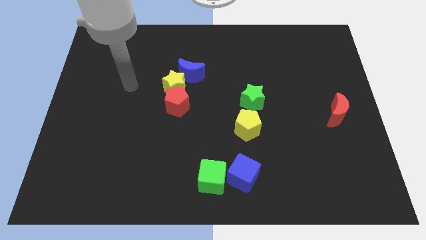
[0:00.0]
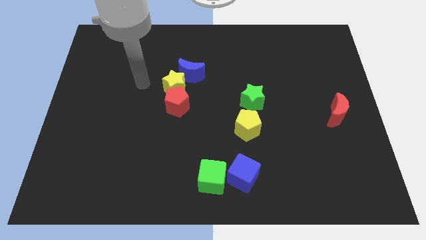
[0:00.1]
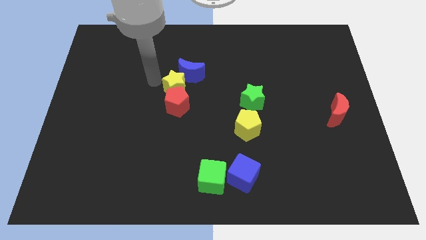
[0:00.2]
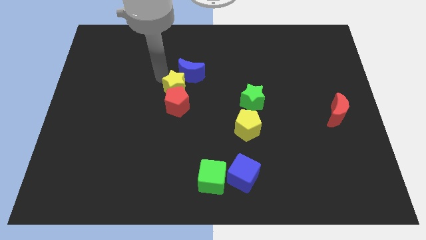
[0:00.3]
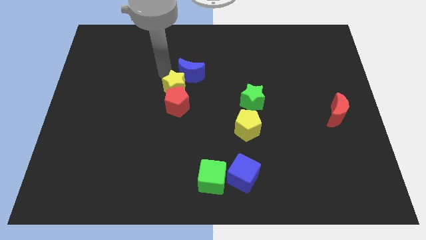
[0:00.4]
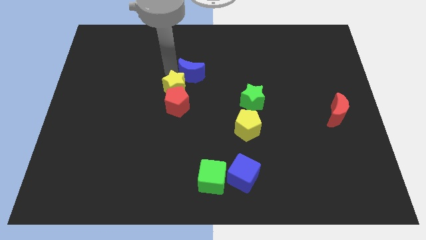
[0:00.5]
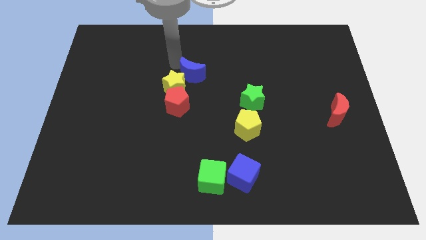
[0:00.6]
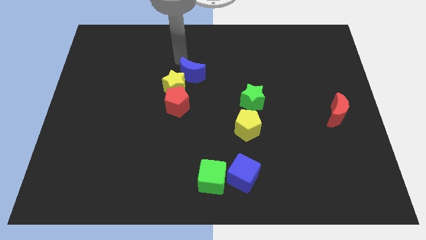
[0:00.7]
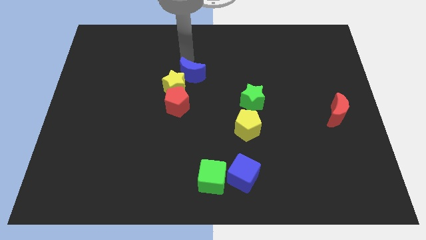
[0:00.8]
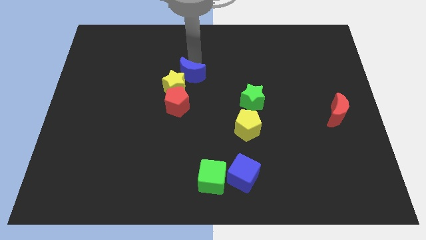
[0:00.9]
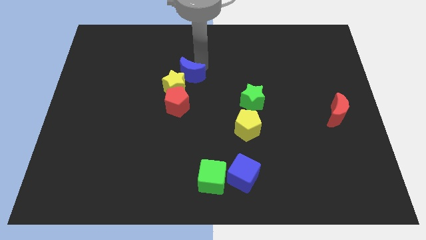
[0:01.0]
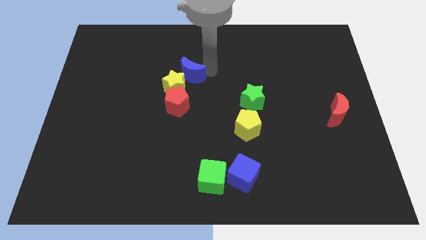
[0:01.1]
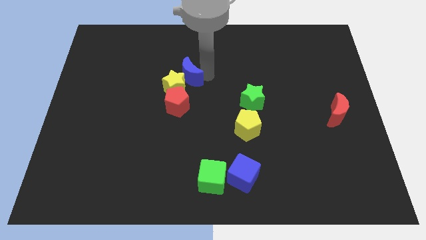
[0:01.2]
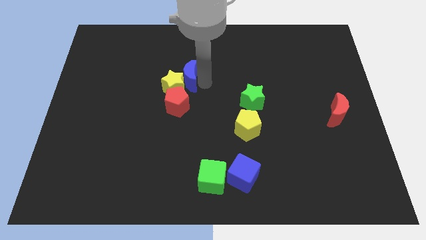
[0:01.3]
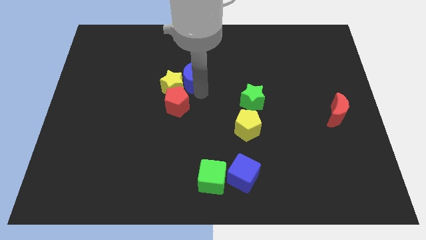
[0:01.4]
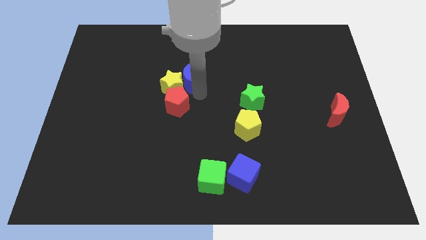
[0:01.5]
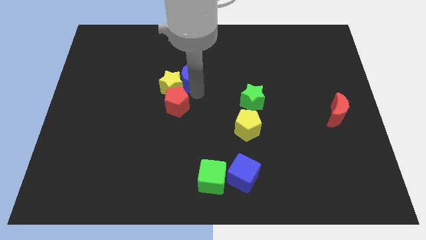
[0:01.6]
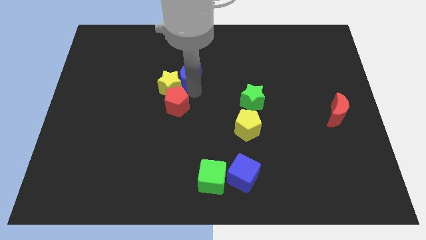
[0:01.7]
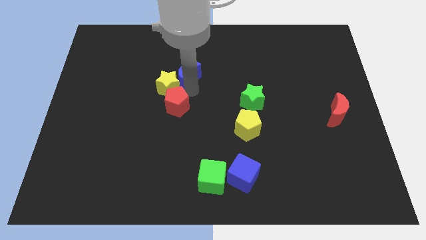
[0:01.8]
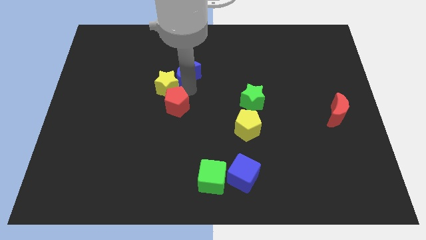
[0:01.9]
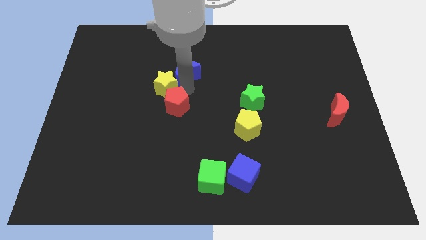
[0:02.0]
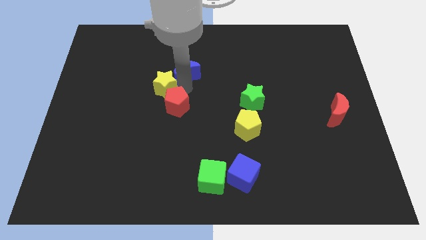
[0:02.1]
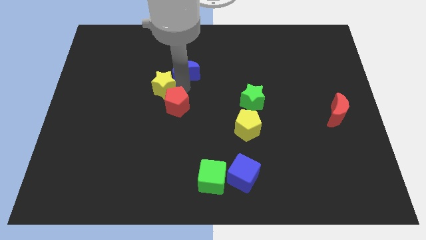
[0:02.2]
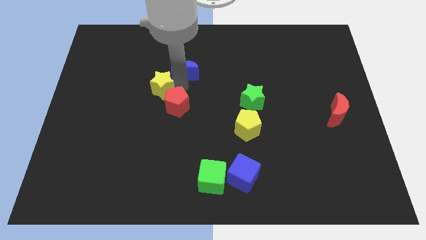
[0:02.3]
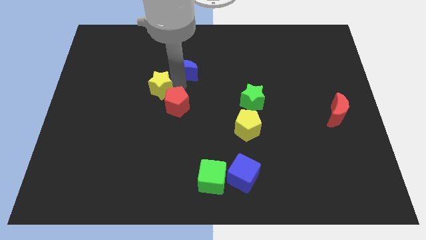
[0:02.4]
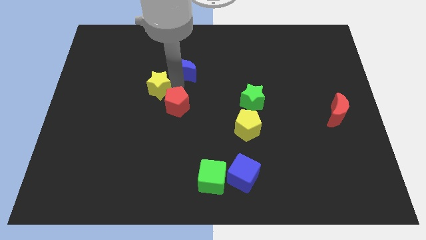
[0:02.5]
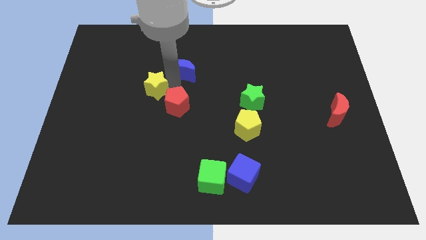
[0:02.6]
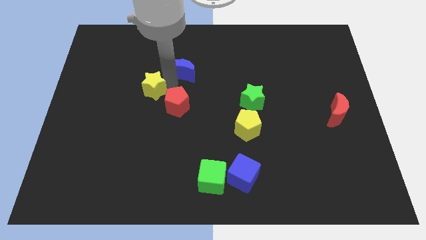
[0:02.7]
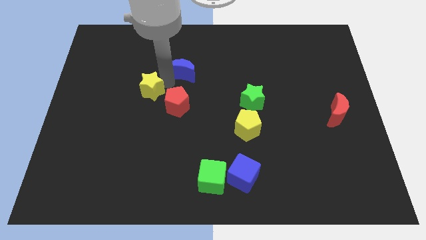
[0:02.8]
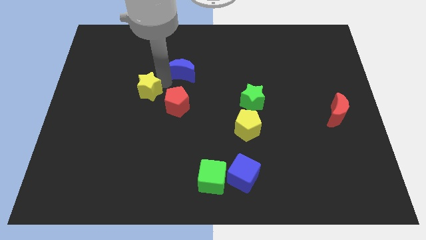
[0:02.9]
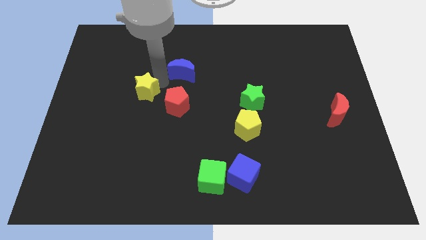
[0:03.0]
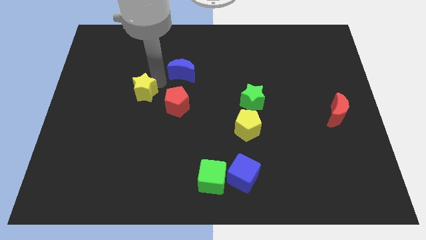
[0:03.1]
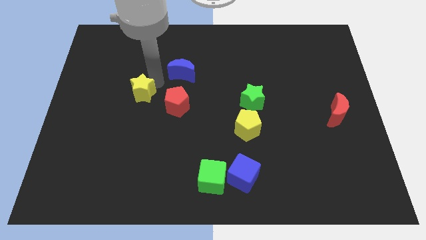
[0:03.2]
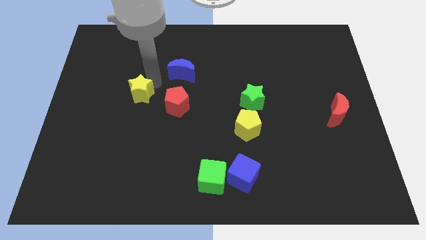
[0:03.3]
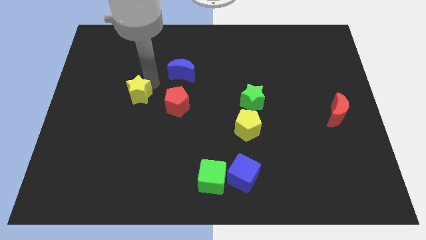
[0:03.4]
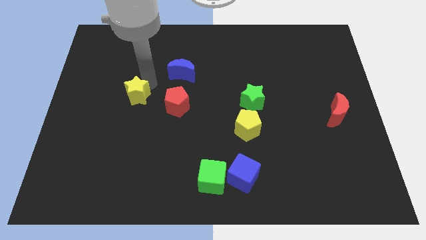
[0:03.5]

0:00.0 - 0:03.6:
move the yellow star away from the red pentagon and blue moon

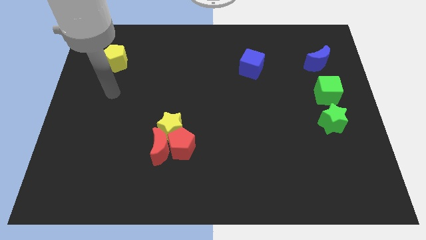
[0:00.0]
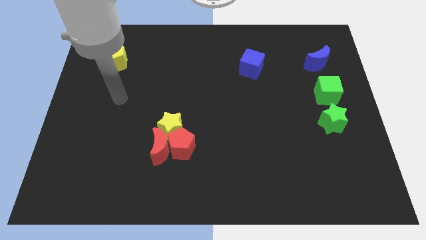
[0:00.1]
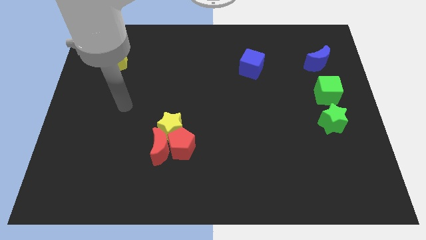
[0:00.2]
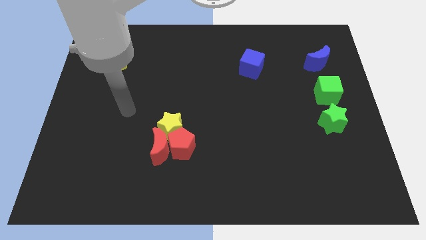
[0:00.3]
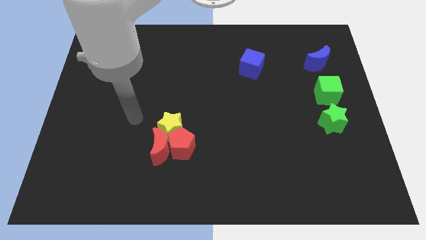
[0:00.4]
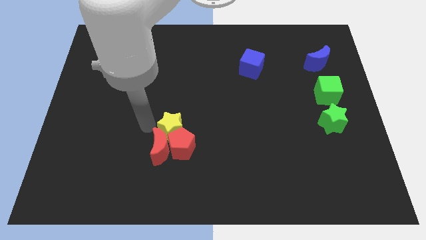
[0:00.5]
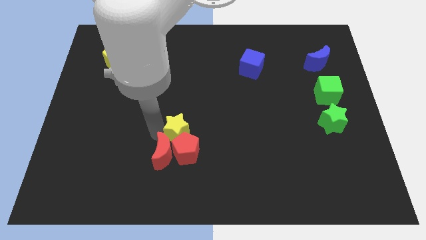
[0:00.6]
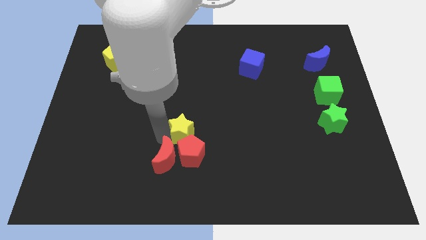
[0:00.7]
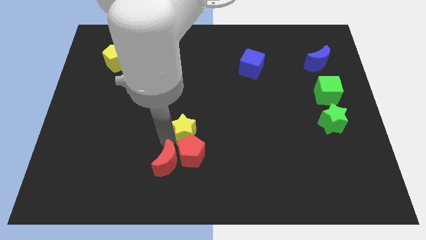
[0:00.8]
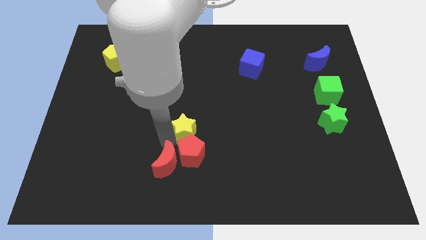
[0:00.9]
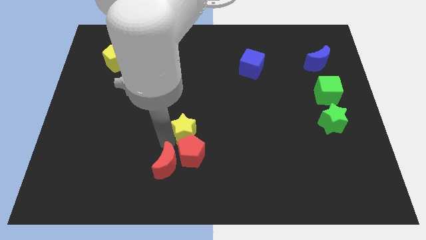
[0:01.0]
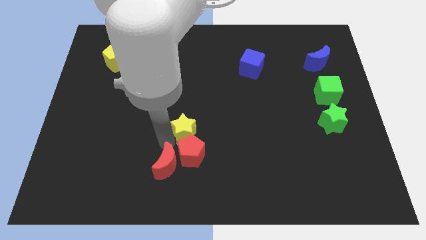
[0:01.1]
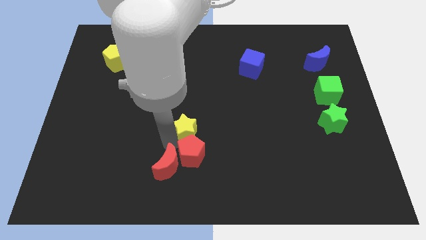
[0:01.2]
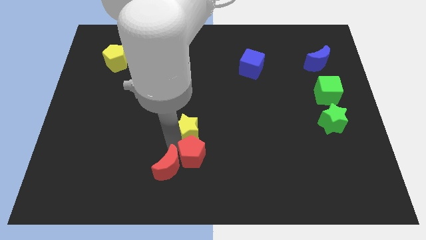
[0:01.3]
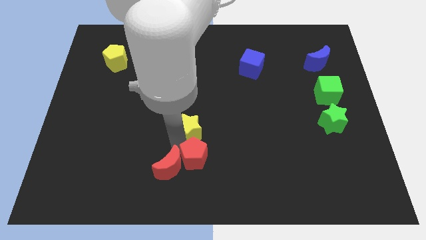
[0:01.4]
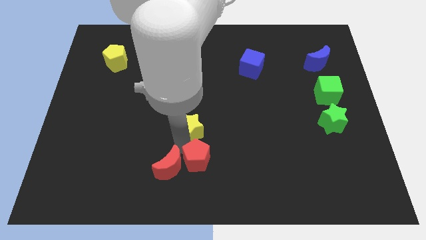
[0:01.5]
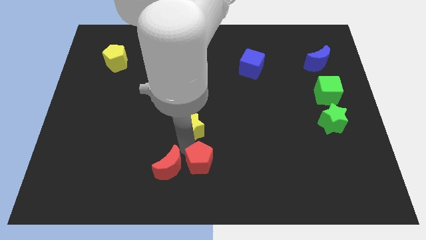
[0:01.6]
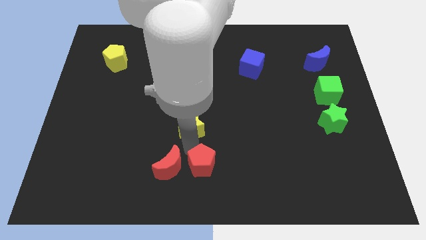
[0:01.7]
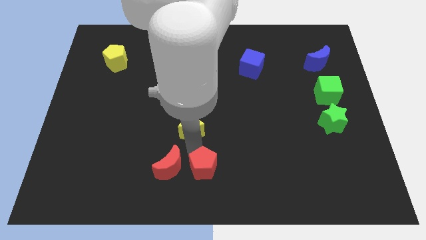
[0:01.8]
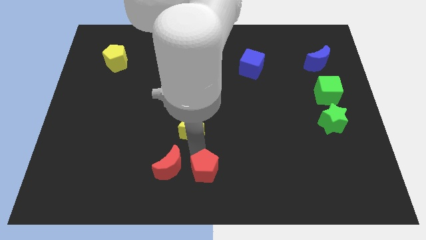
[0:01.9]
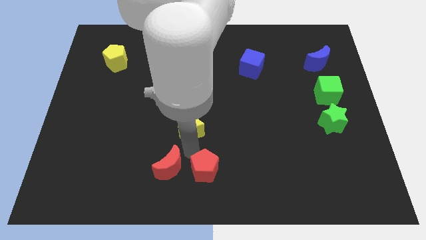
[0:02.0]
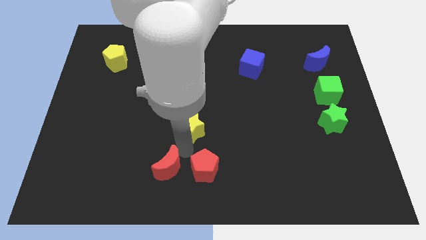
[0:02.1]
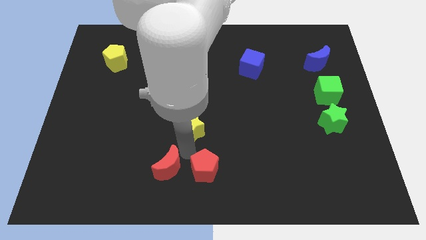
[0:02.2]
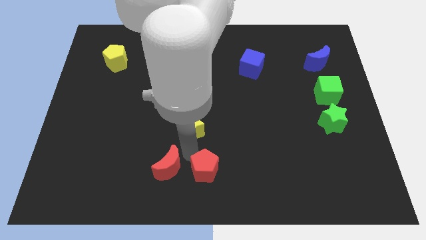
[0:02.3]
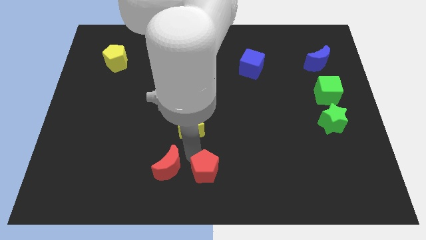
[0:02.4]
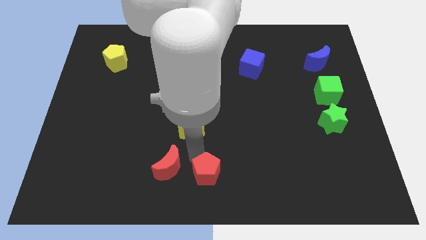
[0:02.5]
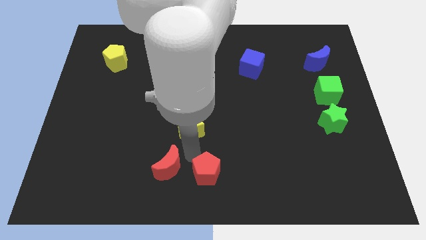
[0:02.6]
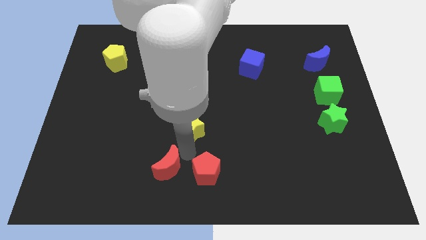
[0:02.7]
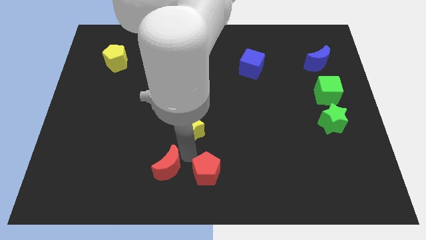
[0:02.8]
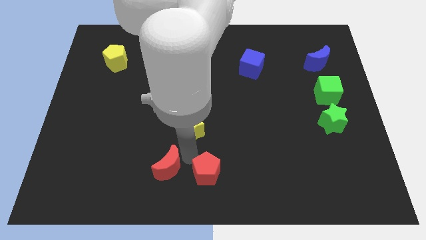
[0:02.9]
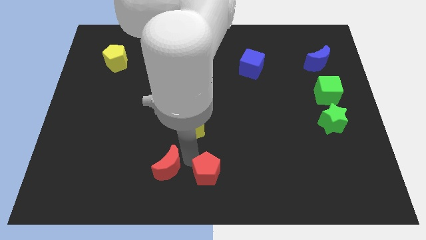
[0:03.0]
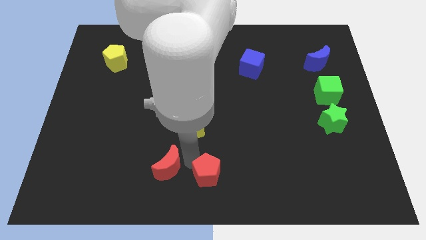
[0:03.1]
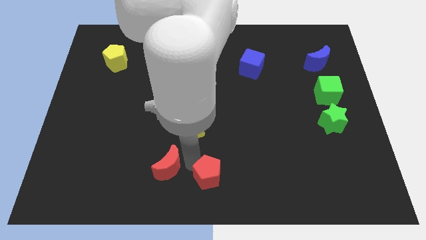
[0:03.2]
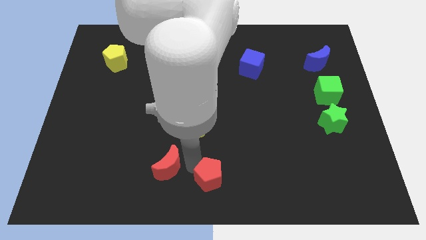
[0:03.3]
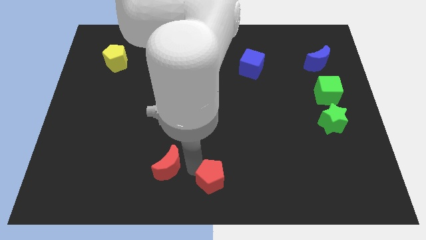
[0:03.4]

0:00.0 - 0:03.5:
pull the red pentagon apart from the red moon and yellow star

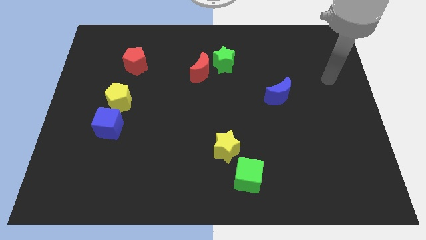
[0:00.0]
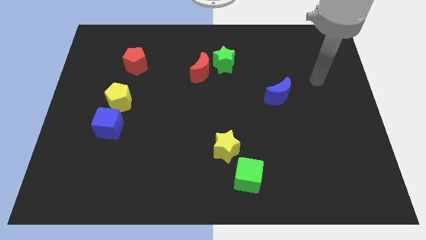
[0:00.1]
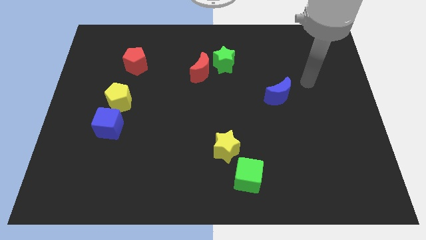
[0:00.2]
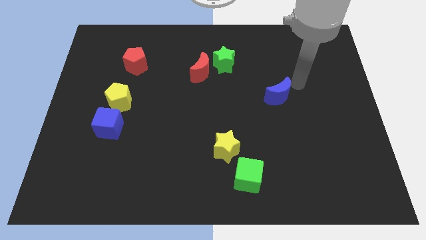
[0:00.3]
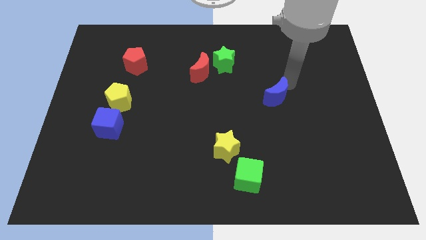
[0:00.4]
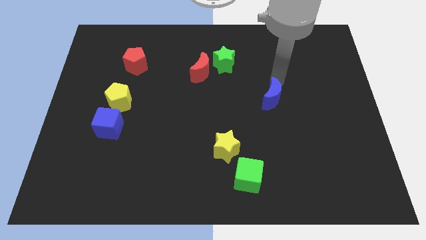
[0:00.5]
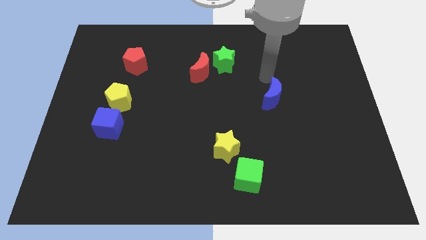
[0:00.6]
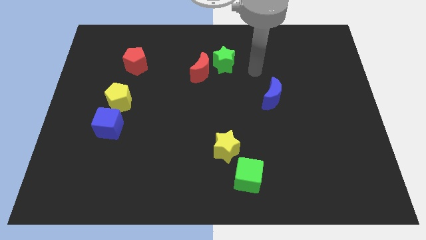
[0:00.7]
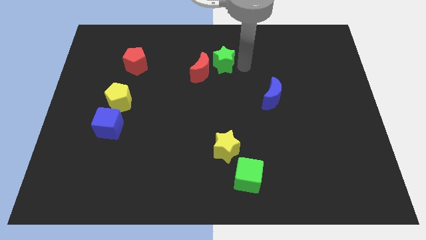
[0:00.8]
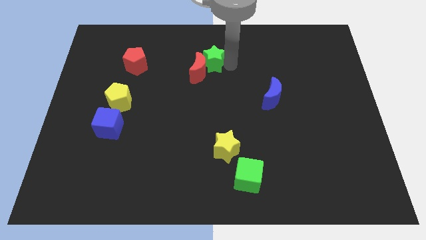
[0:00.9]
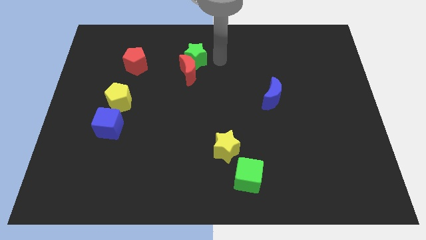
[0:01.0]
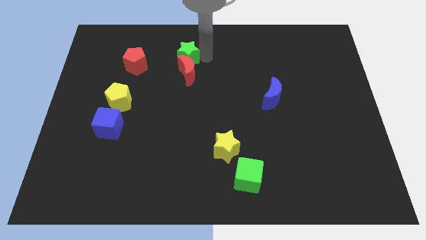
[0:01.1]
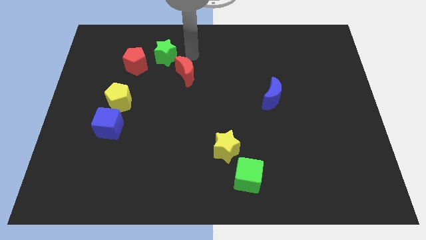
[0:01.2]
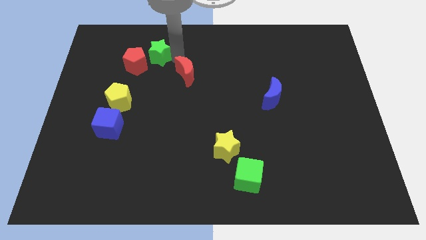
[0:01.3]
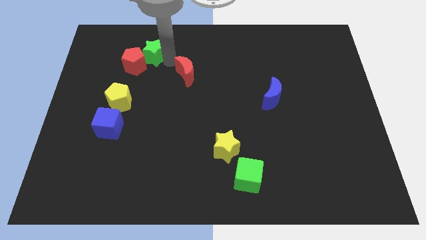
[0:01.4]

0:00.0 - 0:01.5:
move the red moon away from the green star

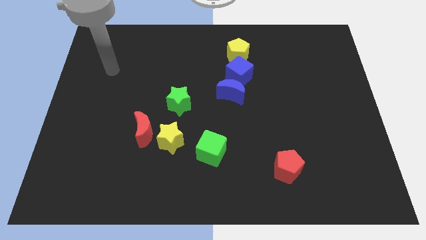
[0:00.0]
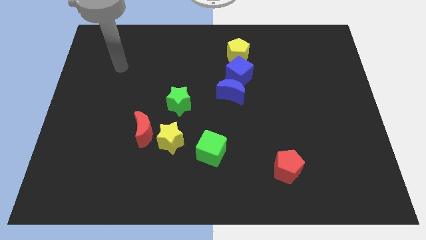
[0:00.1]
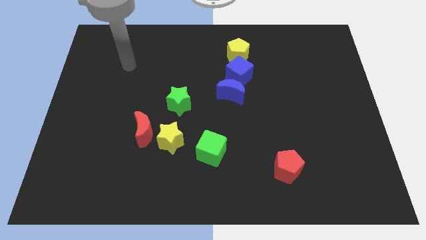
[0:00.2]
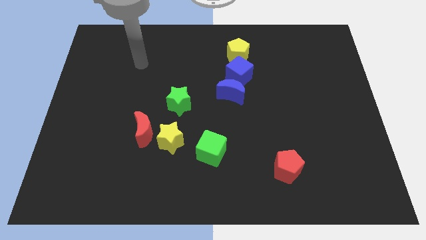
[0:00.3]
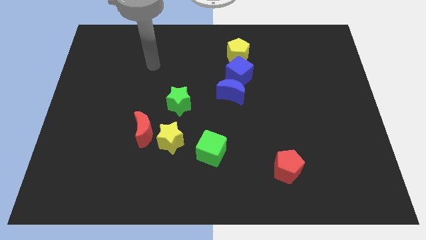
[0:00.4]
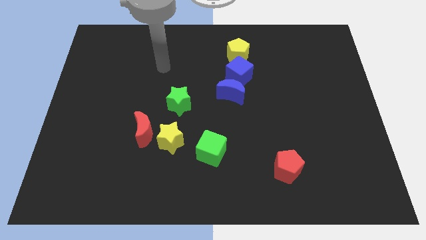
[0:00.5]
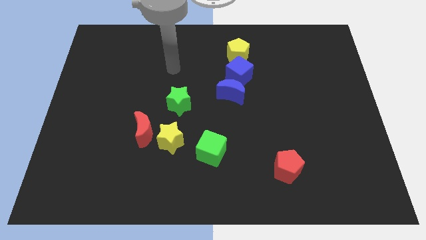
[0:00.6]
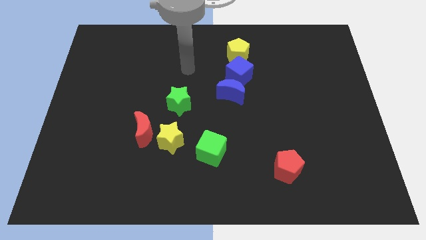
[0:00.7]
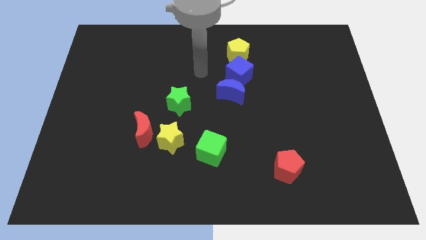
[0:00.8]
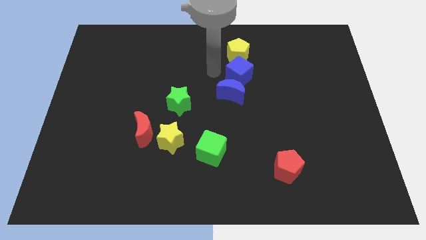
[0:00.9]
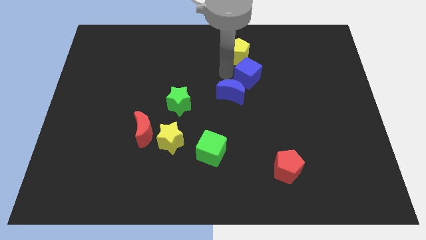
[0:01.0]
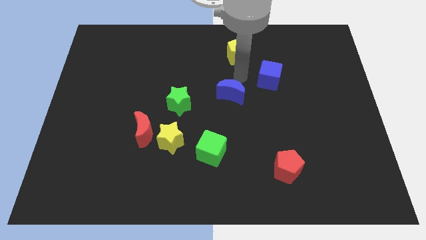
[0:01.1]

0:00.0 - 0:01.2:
separate the blue moon from the blue cube
